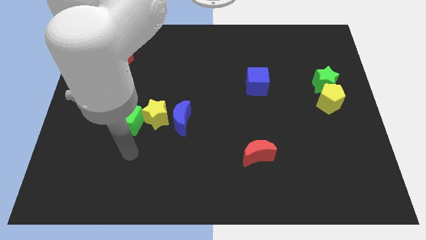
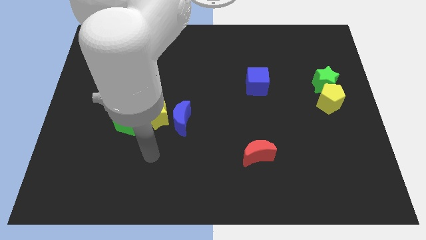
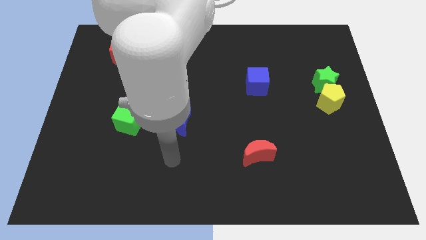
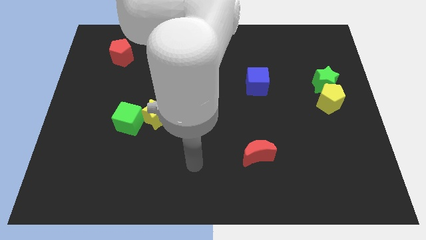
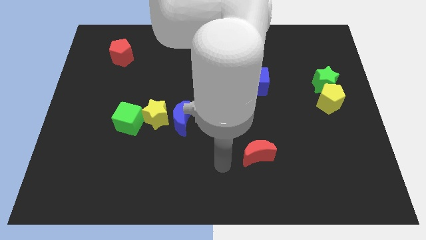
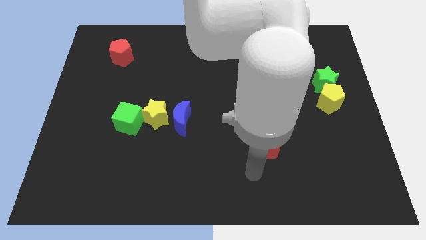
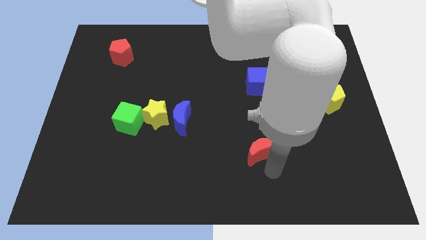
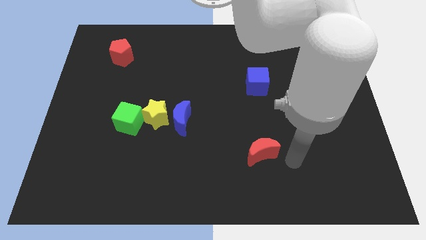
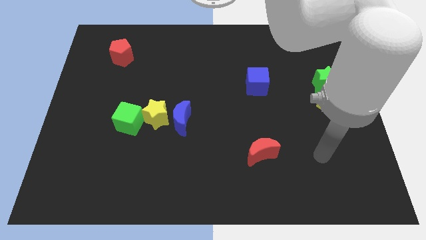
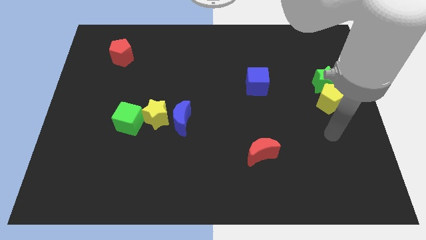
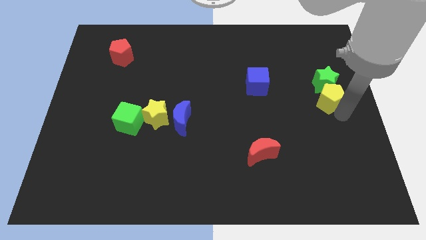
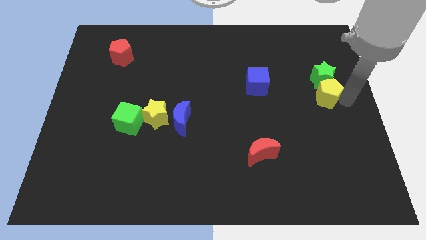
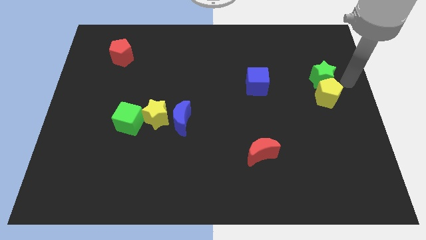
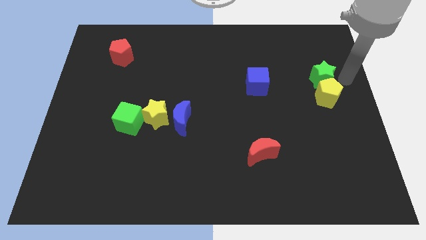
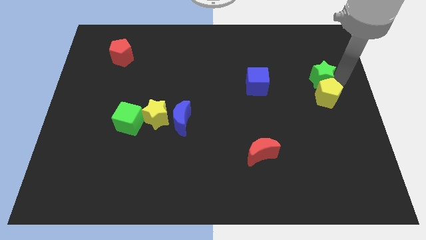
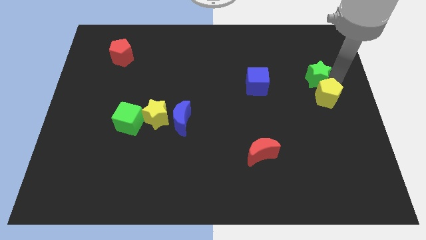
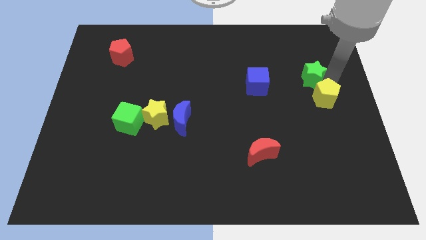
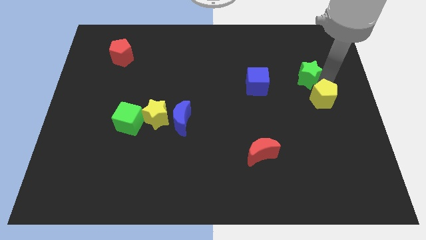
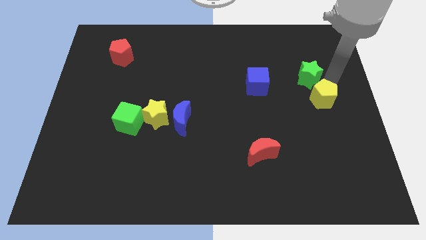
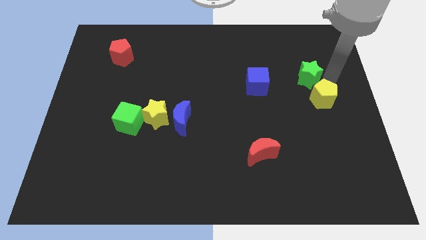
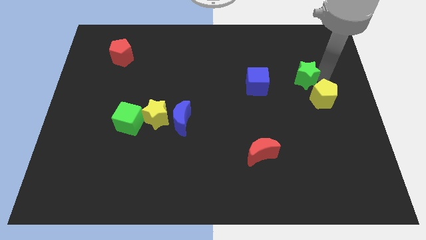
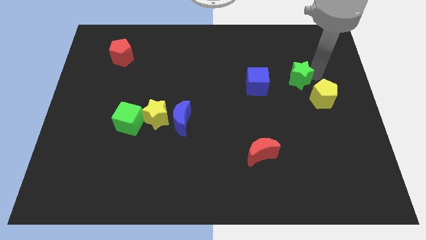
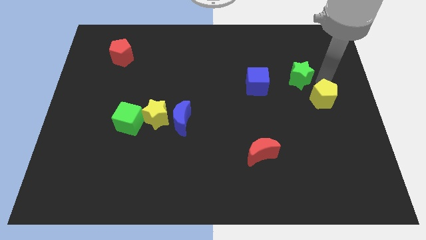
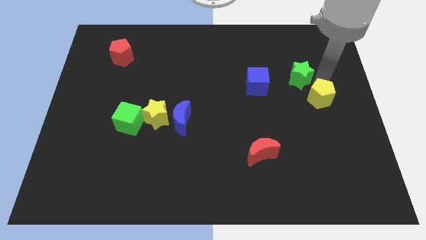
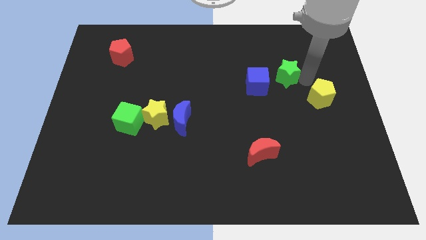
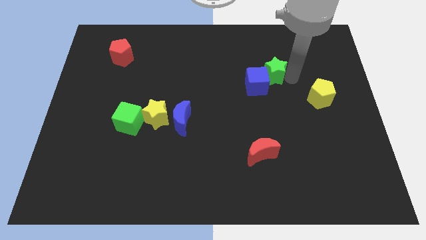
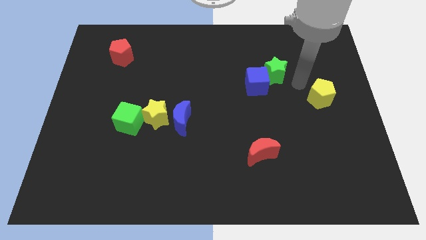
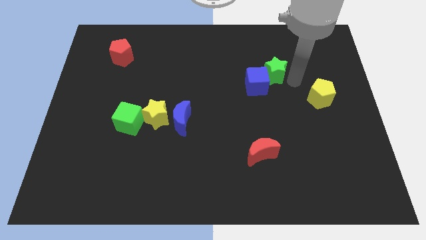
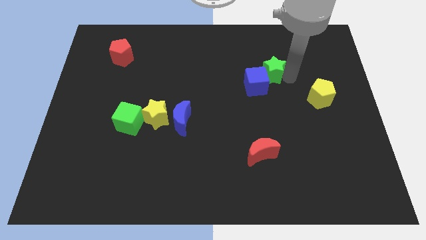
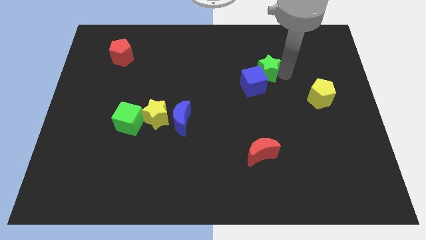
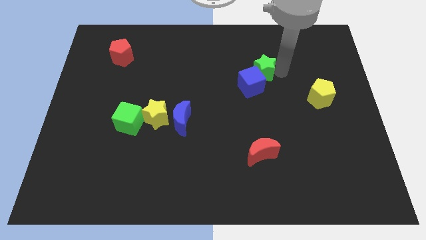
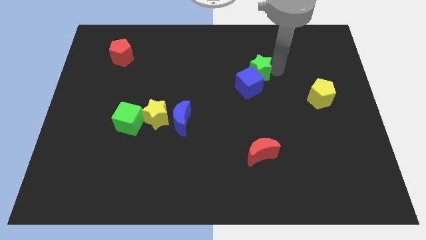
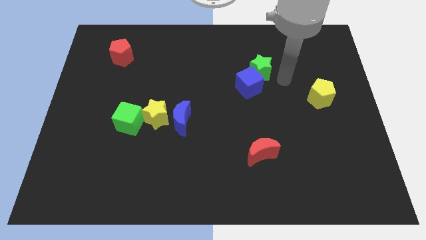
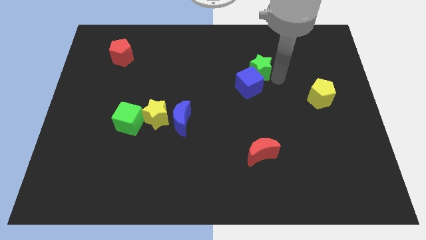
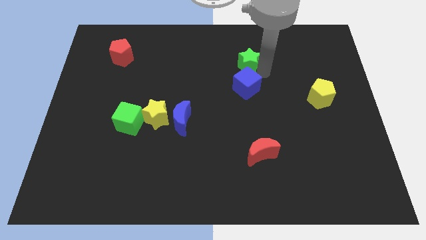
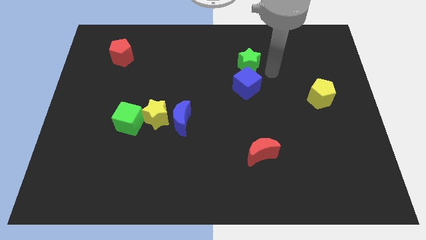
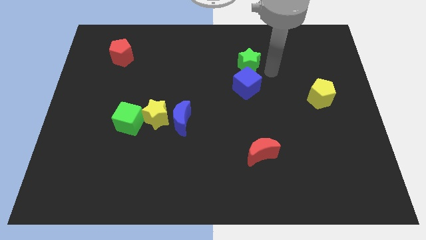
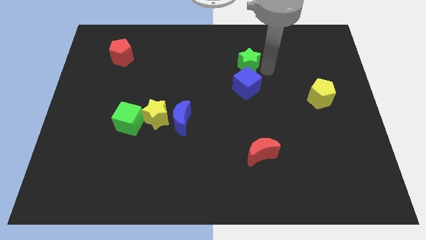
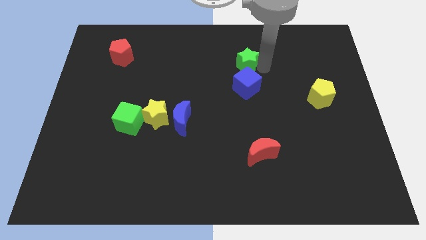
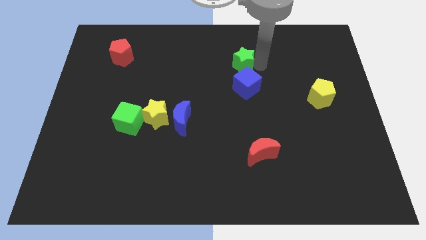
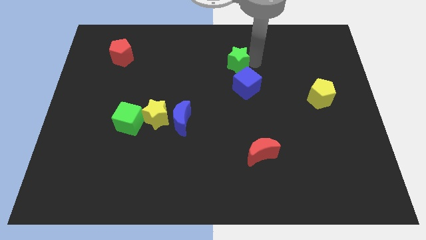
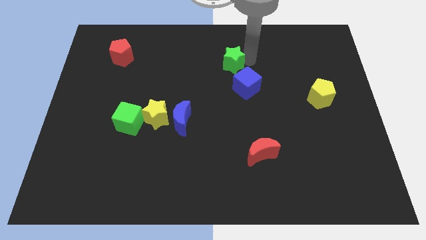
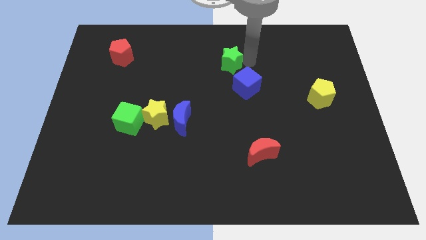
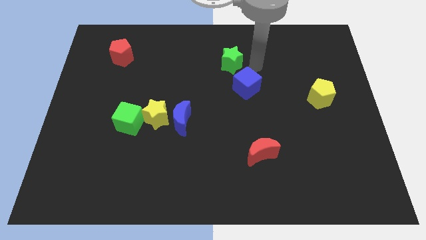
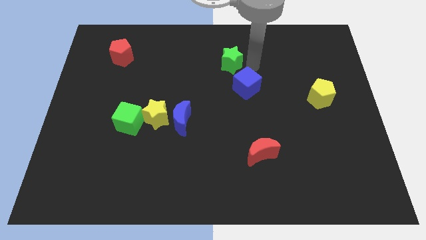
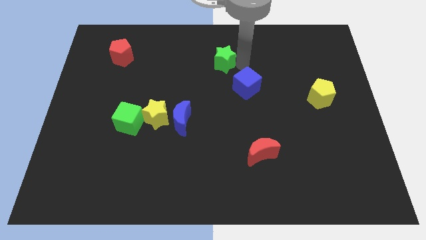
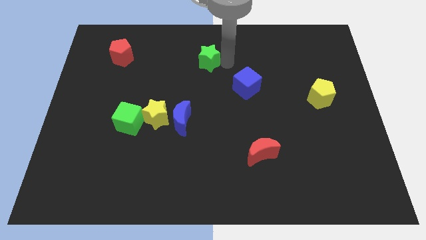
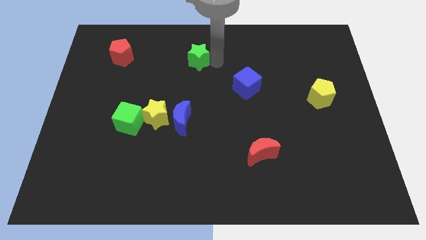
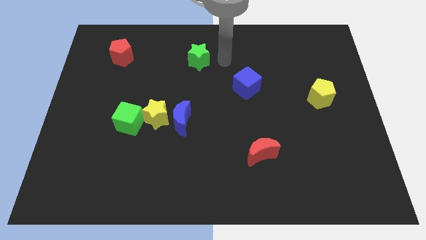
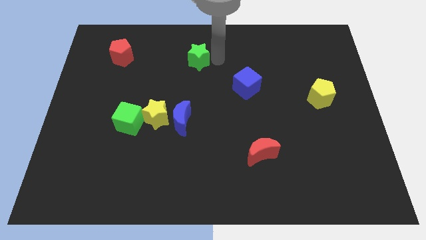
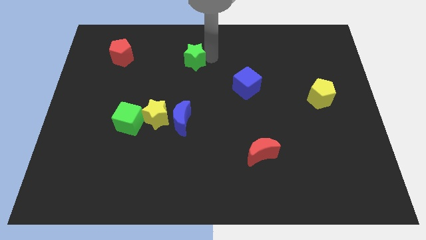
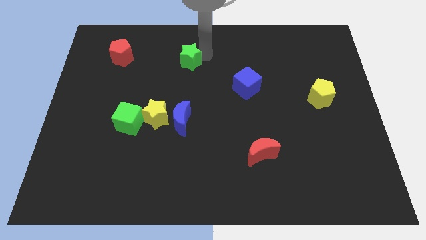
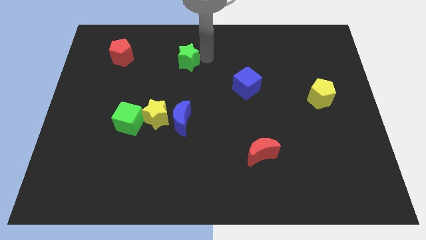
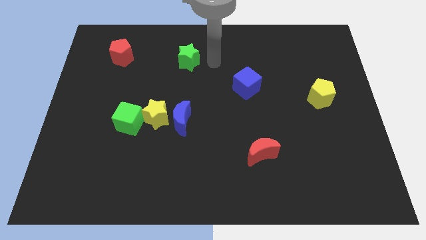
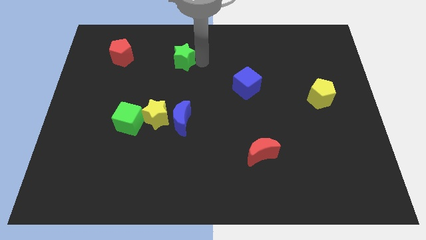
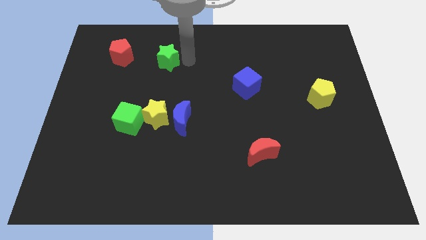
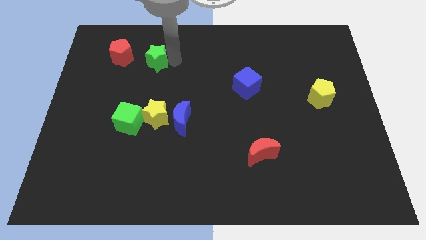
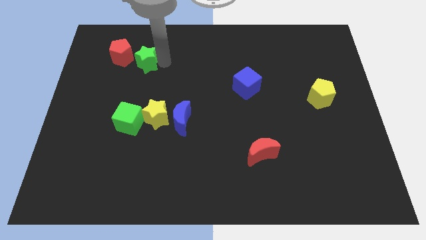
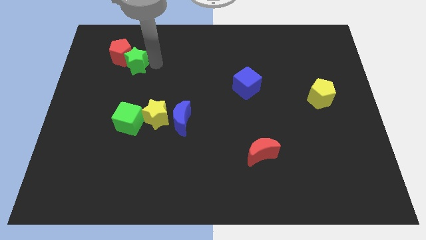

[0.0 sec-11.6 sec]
put the green star next to the red pentagon

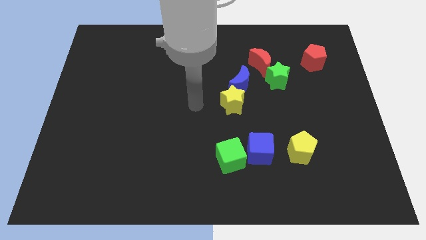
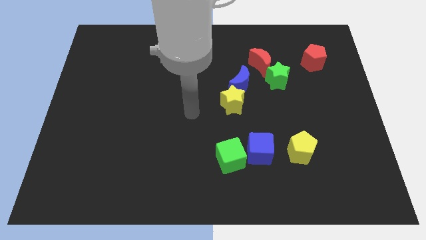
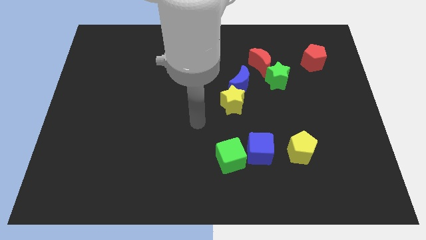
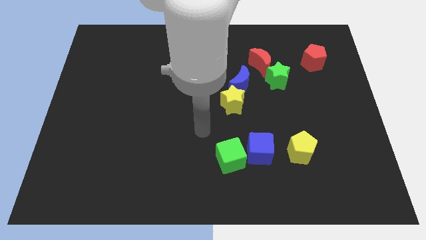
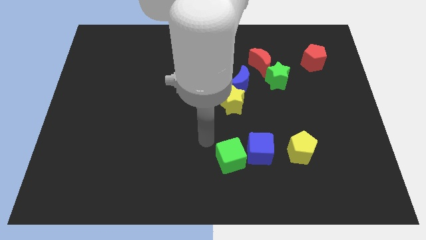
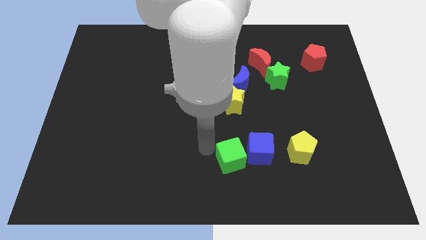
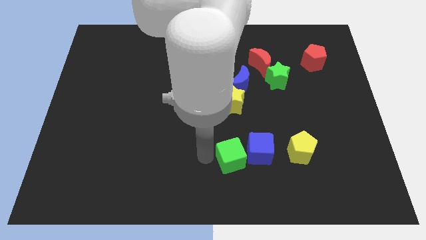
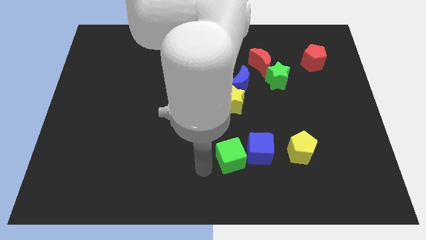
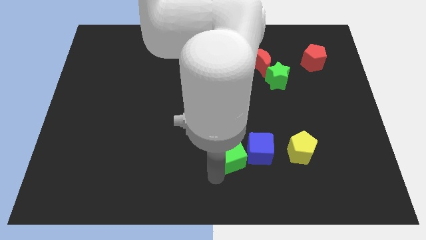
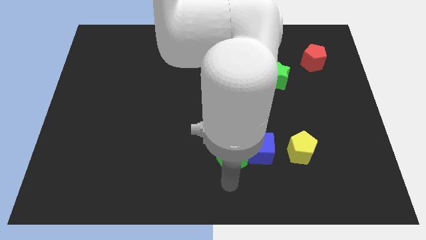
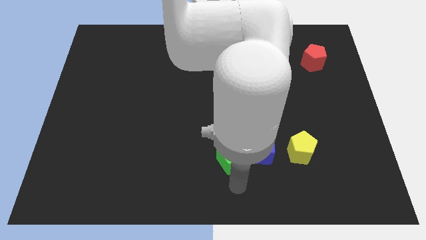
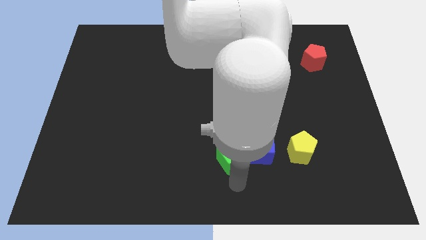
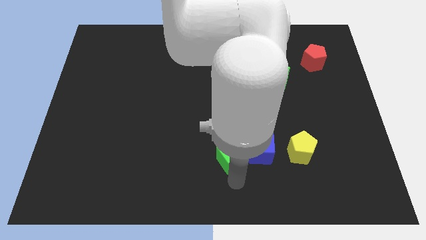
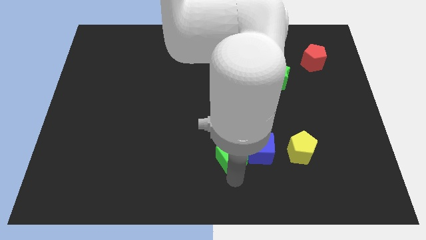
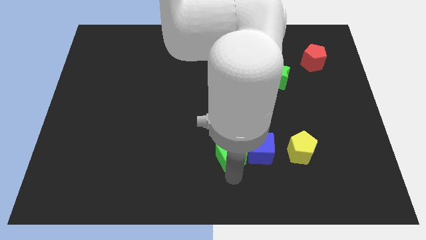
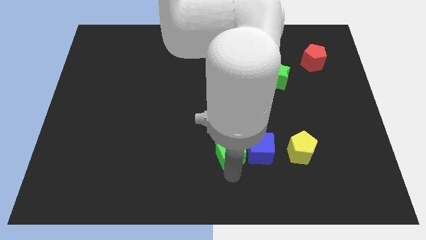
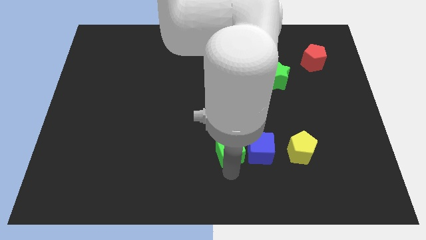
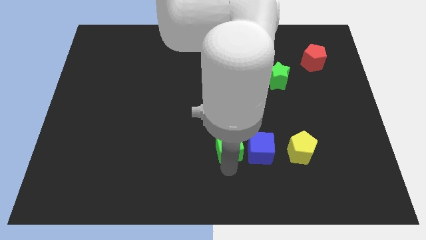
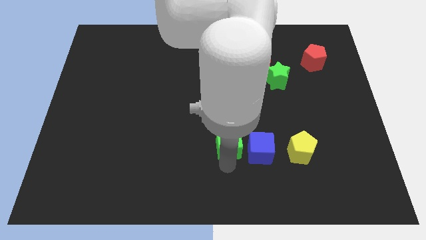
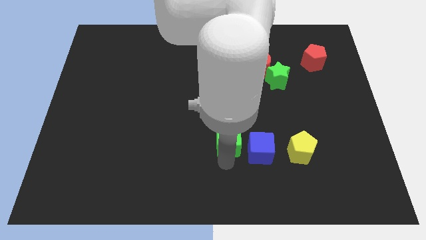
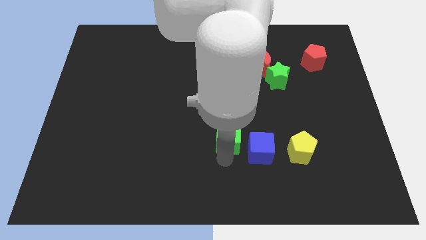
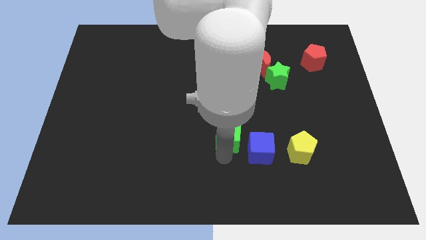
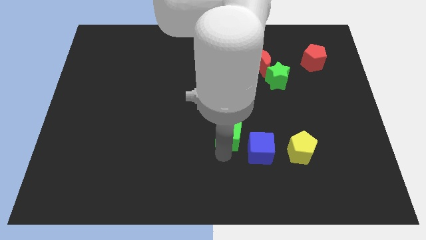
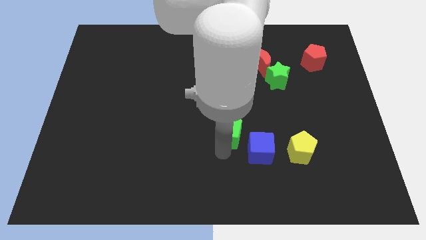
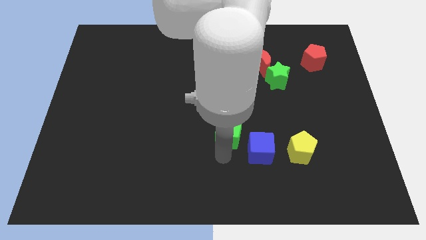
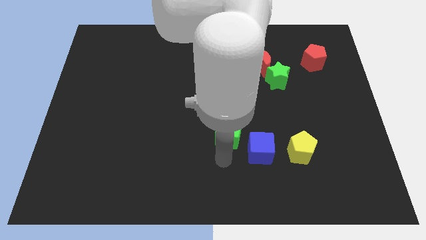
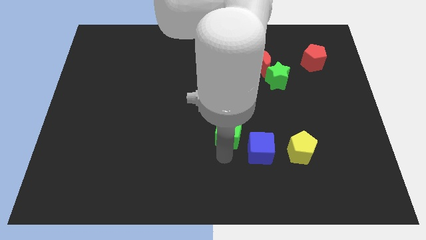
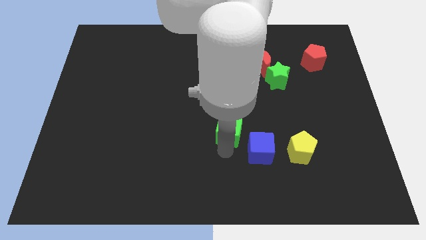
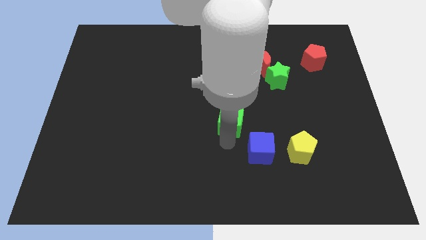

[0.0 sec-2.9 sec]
move the green cube to the yellow star
